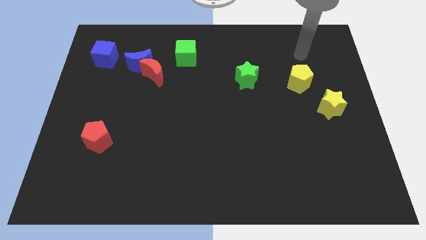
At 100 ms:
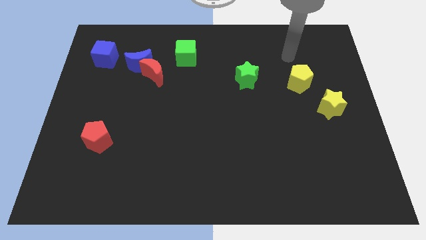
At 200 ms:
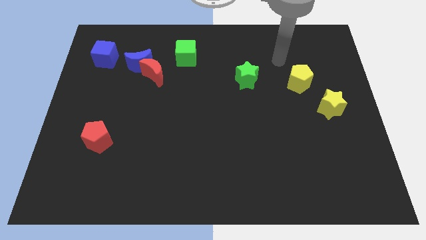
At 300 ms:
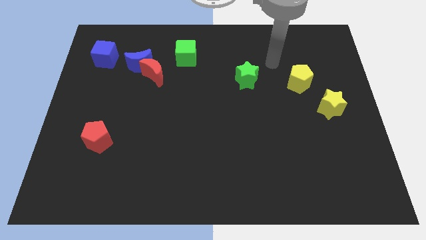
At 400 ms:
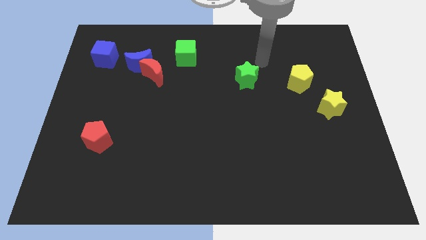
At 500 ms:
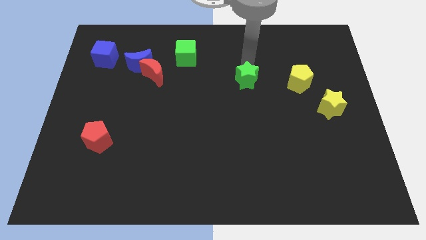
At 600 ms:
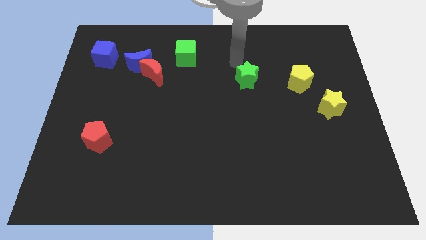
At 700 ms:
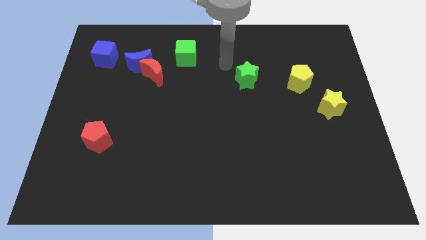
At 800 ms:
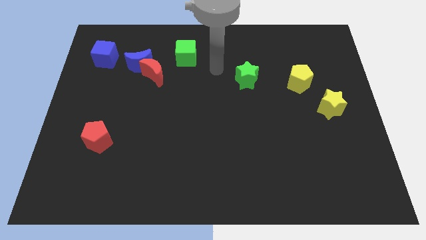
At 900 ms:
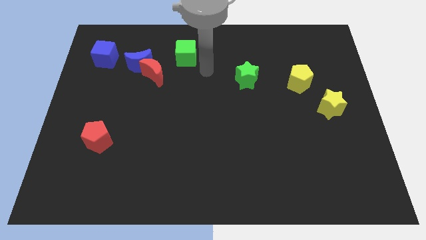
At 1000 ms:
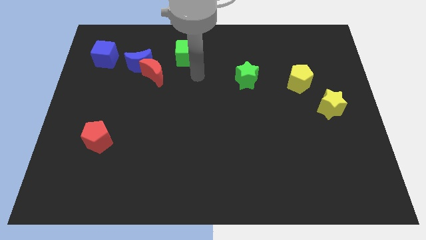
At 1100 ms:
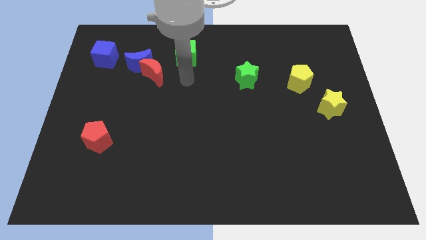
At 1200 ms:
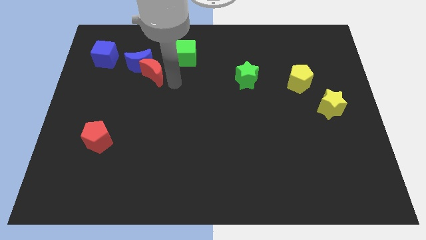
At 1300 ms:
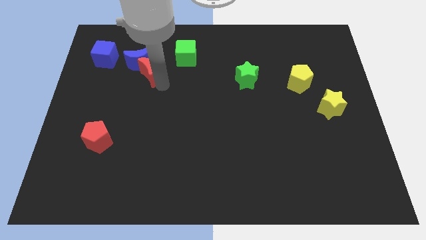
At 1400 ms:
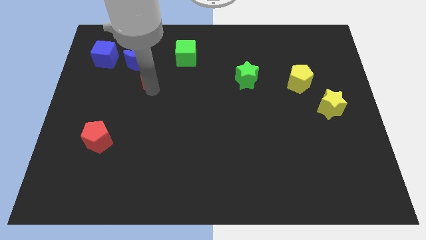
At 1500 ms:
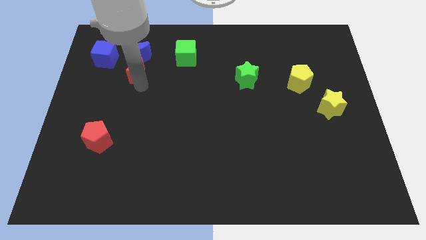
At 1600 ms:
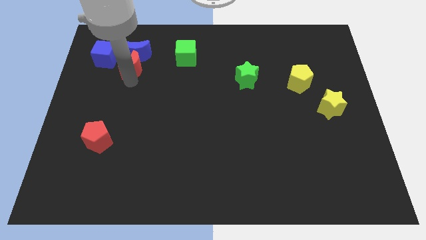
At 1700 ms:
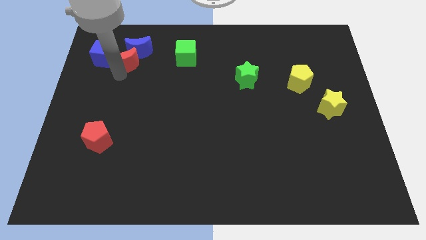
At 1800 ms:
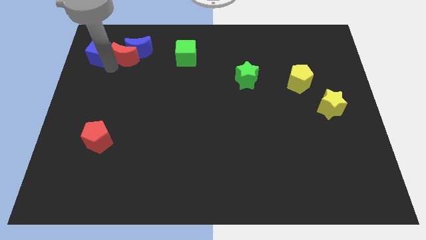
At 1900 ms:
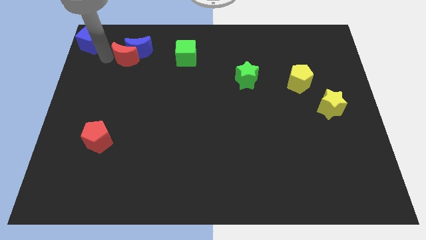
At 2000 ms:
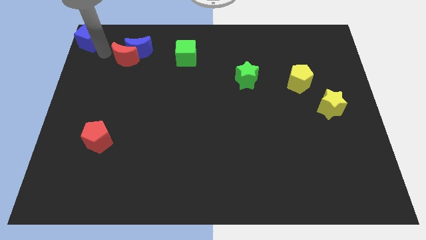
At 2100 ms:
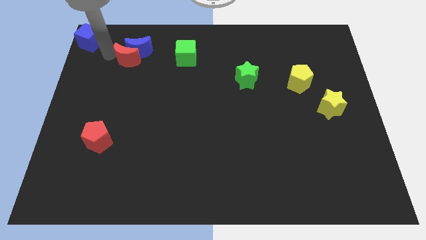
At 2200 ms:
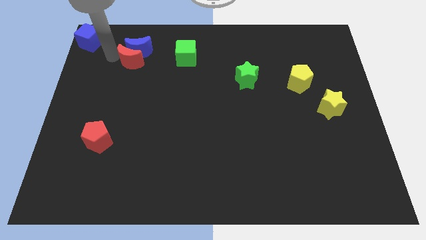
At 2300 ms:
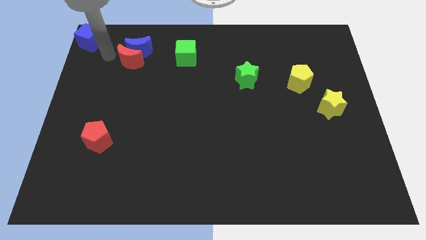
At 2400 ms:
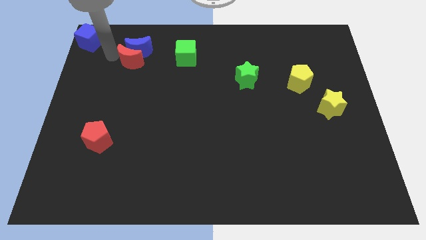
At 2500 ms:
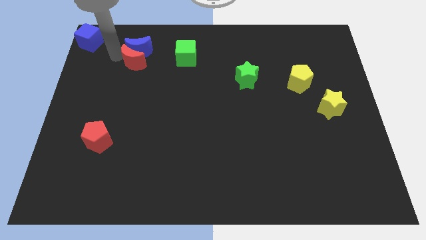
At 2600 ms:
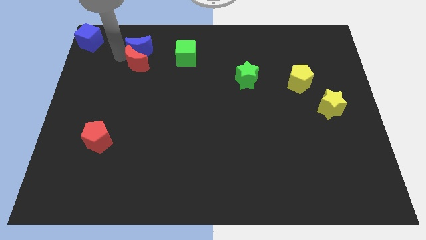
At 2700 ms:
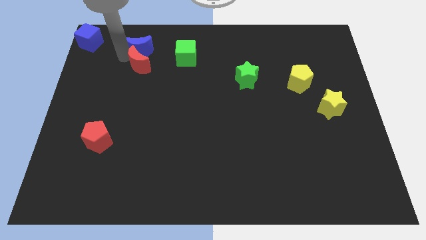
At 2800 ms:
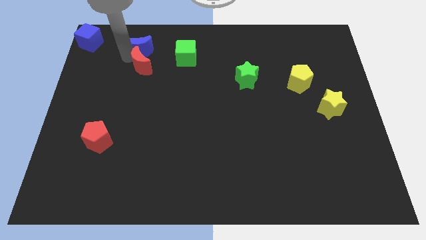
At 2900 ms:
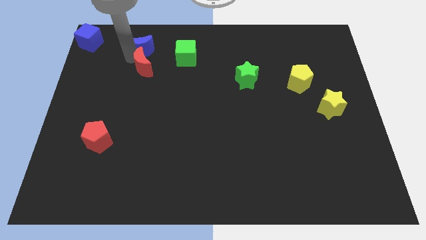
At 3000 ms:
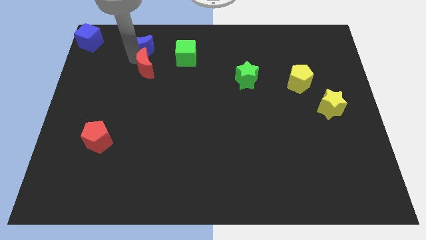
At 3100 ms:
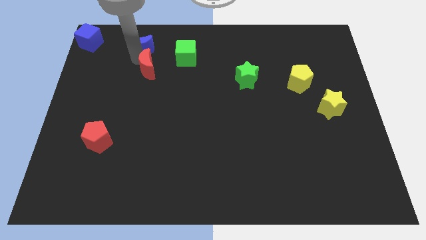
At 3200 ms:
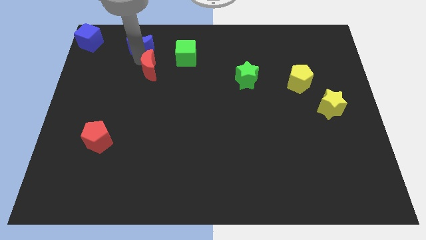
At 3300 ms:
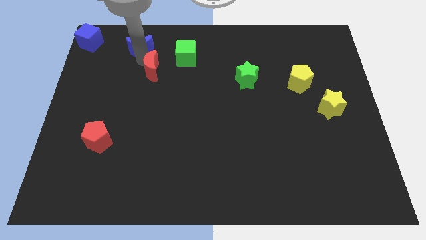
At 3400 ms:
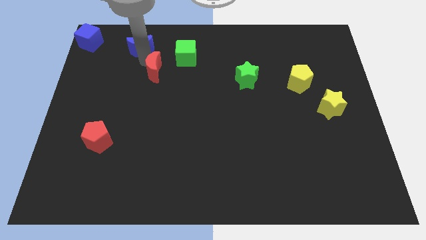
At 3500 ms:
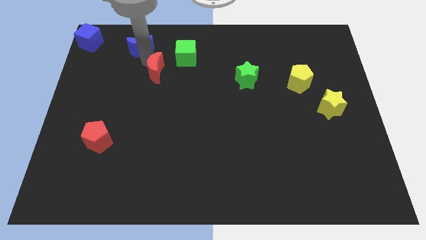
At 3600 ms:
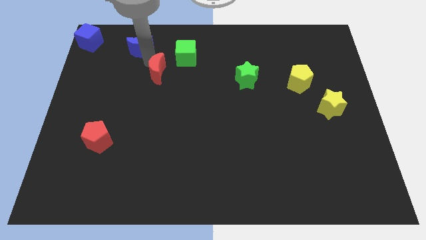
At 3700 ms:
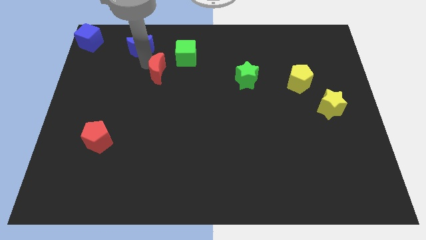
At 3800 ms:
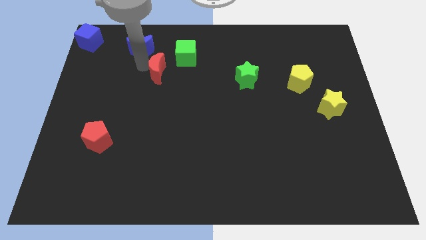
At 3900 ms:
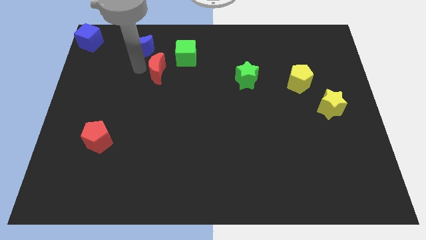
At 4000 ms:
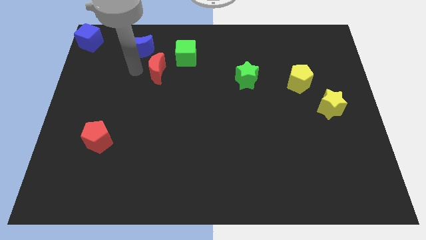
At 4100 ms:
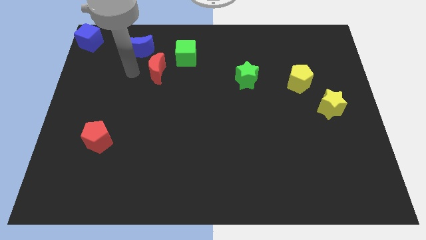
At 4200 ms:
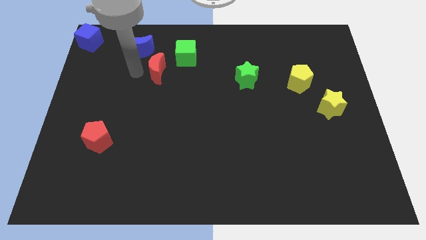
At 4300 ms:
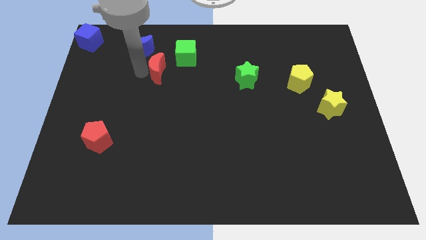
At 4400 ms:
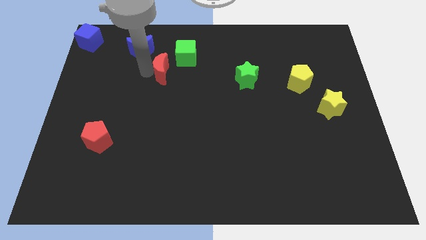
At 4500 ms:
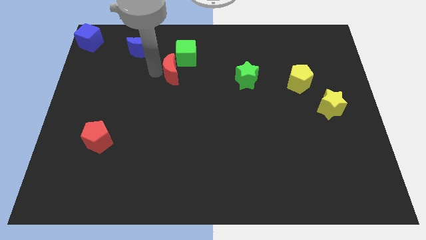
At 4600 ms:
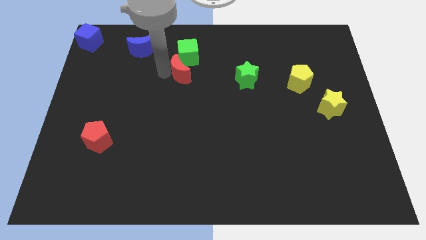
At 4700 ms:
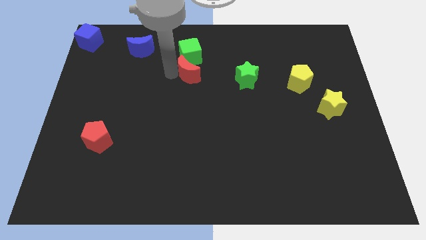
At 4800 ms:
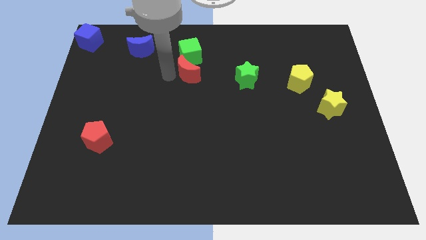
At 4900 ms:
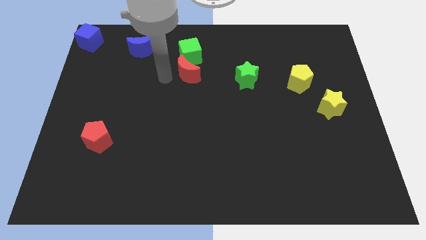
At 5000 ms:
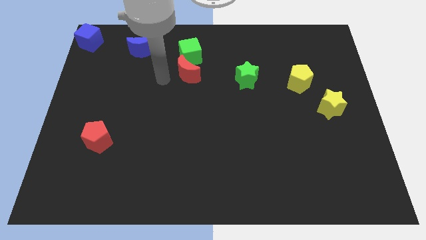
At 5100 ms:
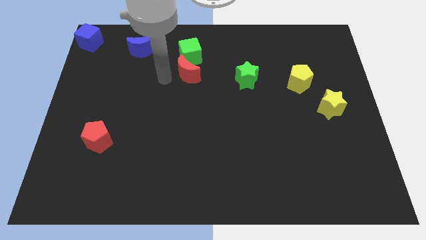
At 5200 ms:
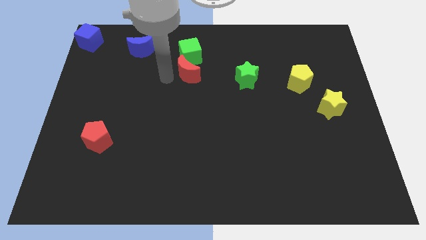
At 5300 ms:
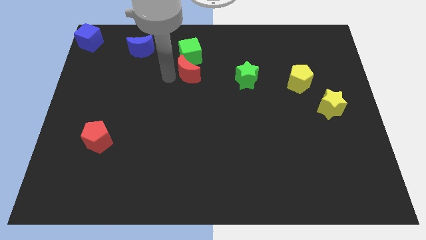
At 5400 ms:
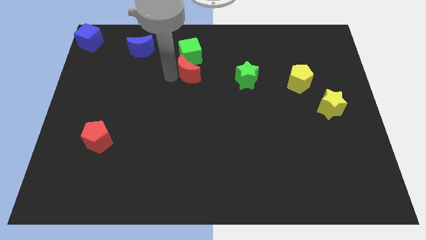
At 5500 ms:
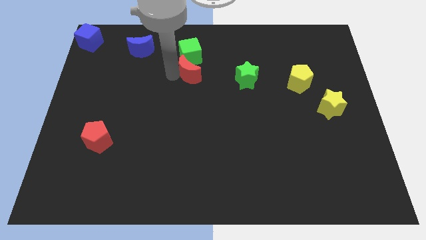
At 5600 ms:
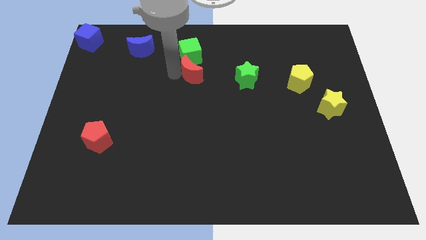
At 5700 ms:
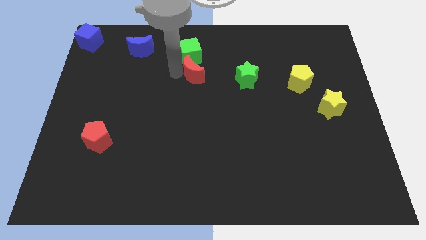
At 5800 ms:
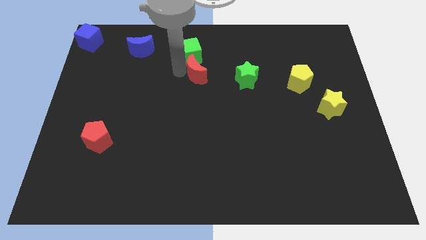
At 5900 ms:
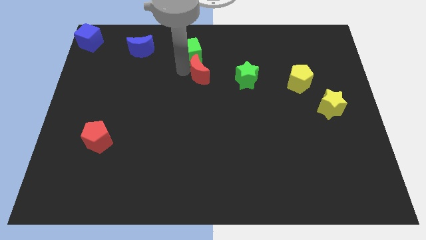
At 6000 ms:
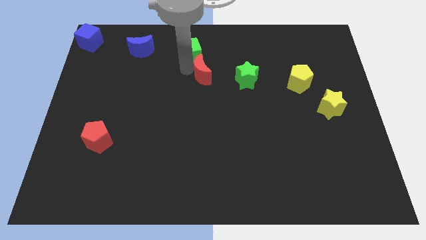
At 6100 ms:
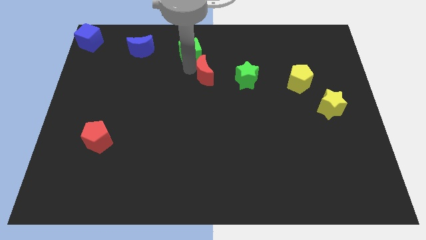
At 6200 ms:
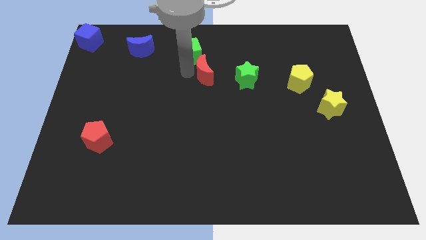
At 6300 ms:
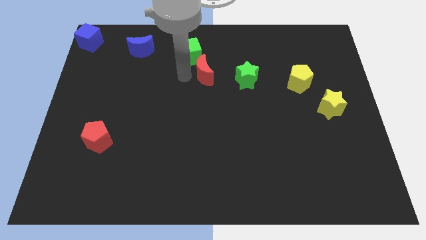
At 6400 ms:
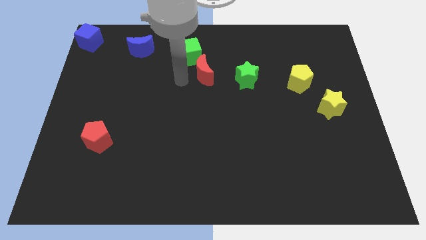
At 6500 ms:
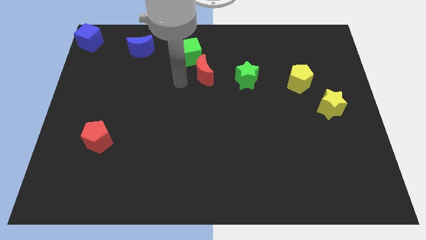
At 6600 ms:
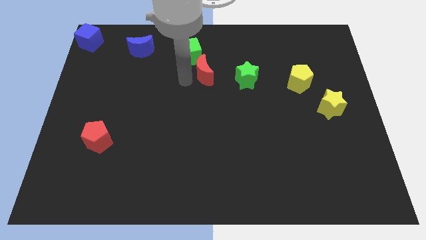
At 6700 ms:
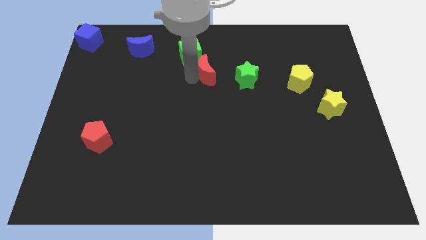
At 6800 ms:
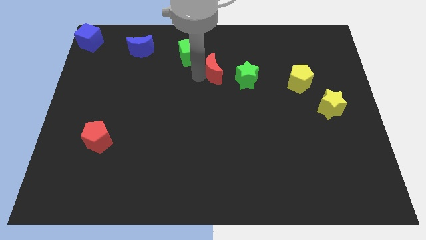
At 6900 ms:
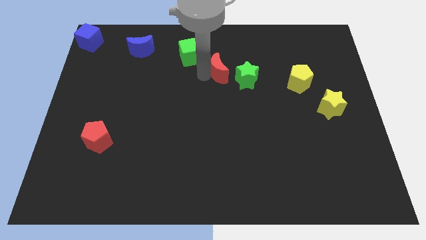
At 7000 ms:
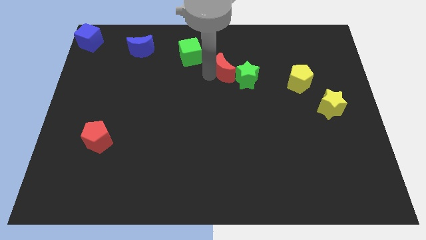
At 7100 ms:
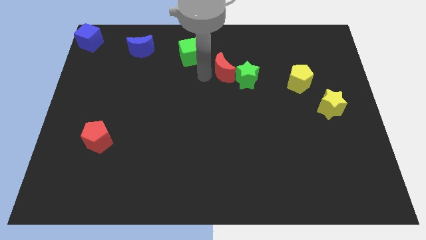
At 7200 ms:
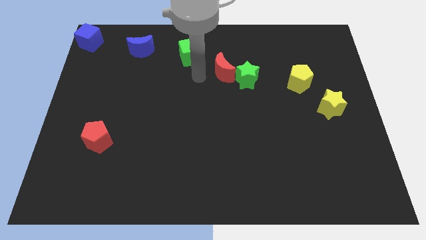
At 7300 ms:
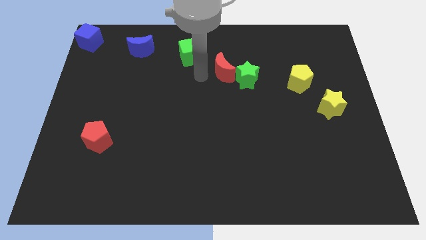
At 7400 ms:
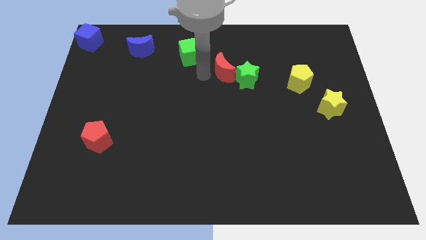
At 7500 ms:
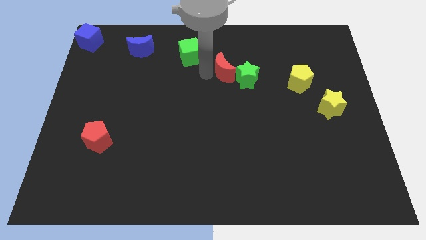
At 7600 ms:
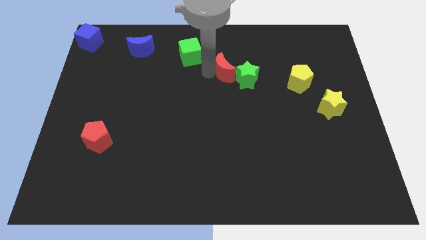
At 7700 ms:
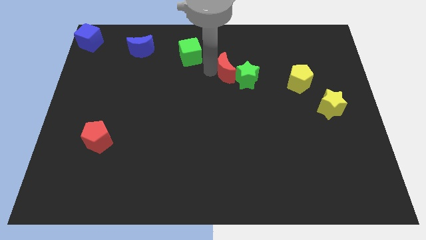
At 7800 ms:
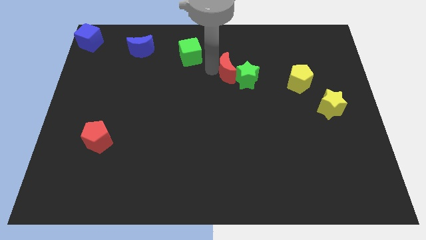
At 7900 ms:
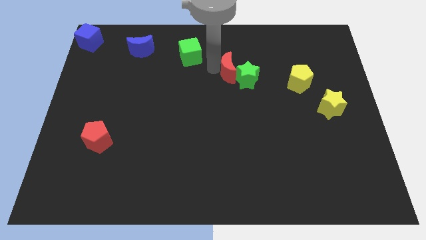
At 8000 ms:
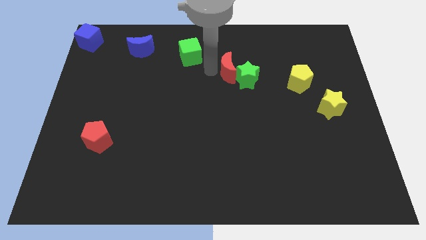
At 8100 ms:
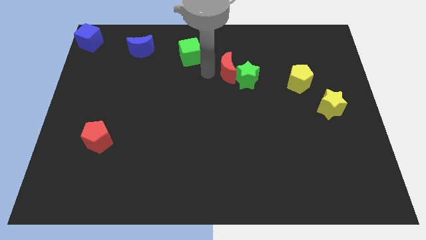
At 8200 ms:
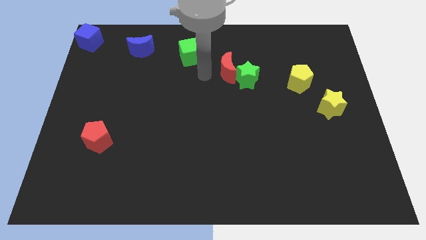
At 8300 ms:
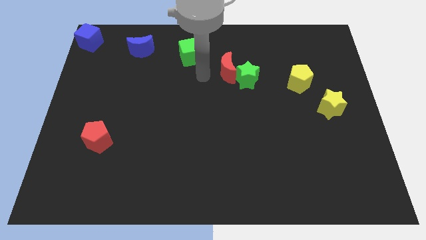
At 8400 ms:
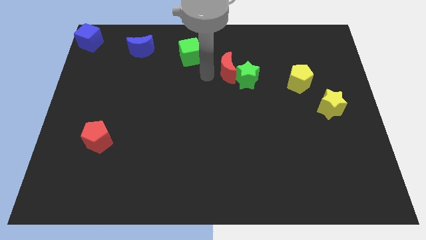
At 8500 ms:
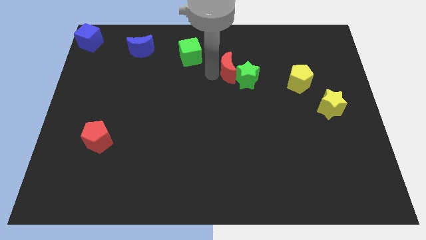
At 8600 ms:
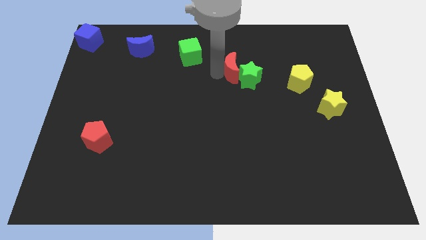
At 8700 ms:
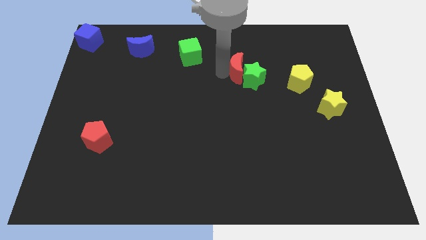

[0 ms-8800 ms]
move the red moon to the right
